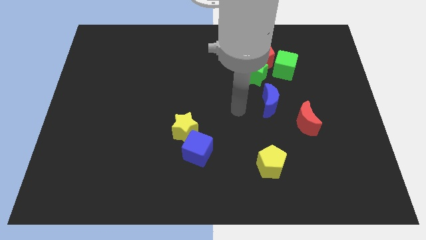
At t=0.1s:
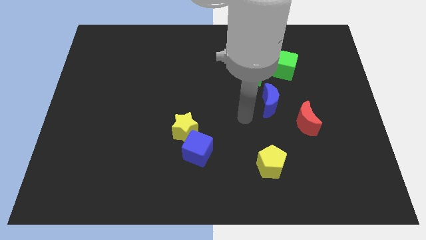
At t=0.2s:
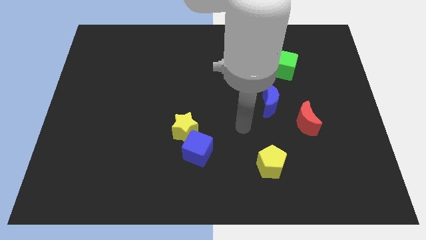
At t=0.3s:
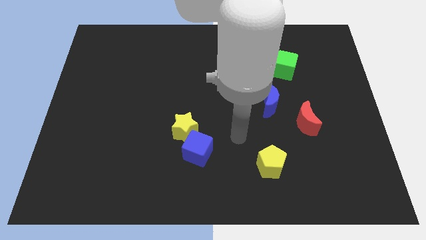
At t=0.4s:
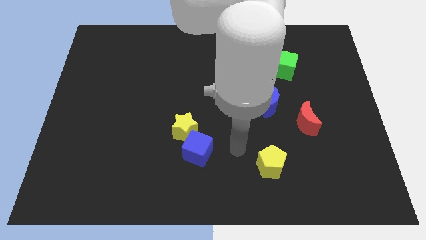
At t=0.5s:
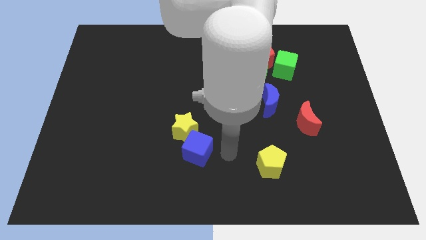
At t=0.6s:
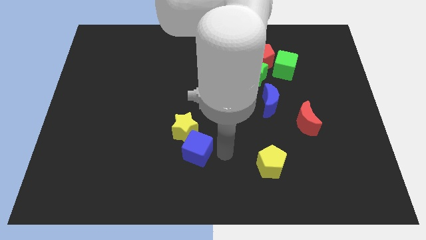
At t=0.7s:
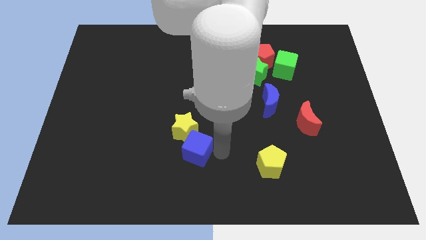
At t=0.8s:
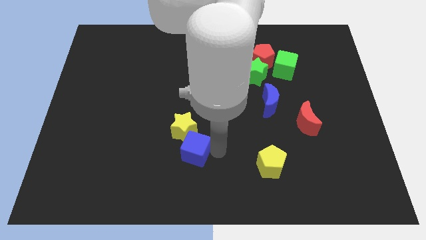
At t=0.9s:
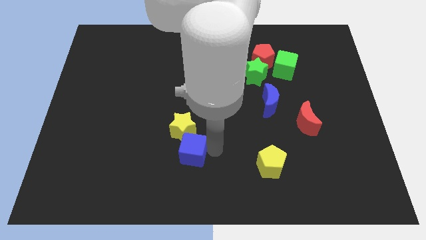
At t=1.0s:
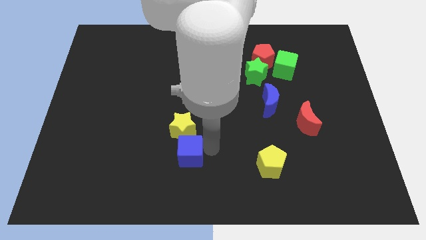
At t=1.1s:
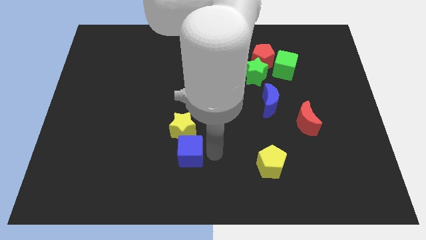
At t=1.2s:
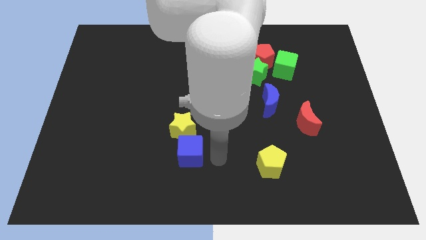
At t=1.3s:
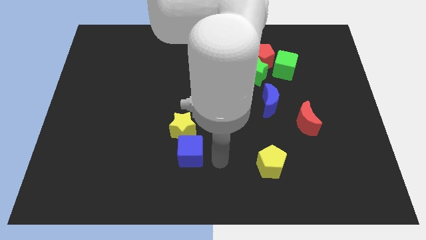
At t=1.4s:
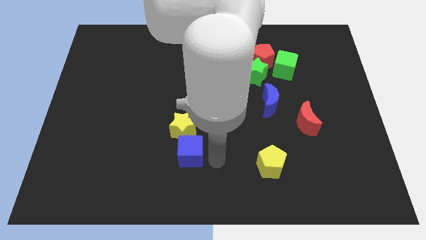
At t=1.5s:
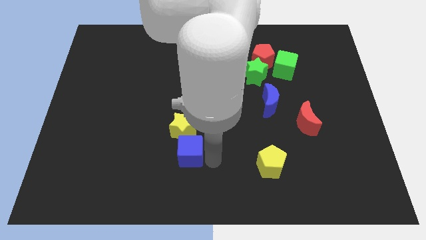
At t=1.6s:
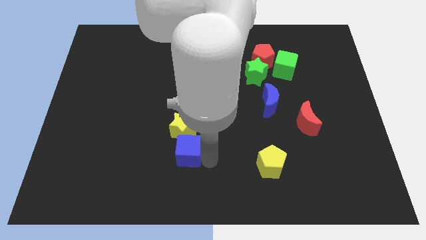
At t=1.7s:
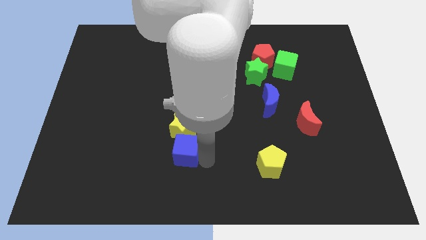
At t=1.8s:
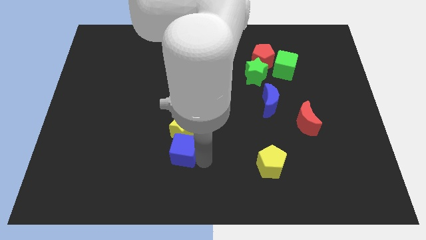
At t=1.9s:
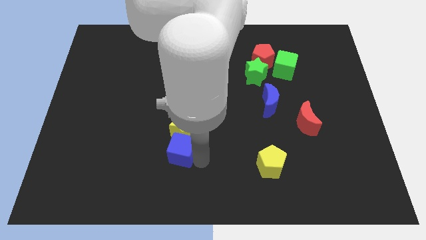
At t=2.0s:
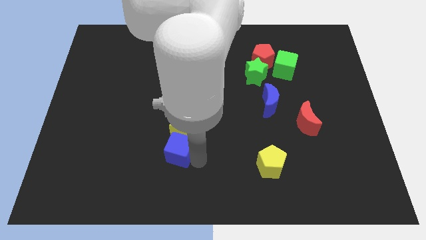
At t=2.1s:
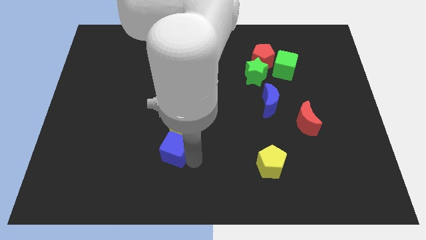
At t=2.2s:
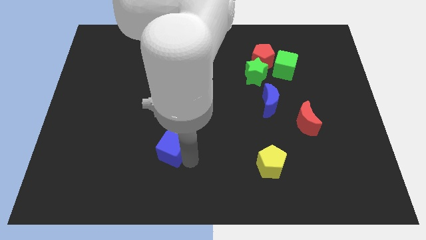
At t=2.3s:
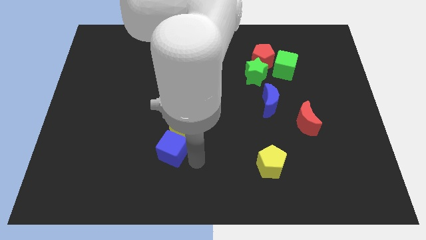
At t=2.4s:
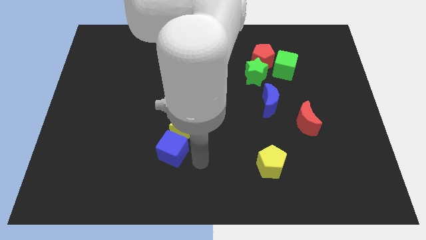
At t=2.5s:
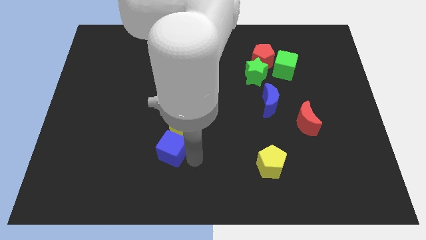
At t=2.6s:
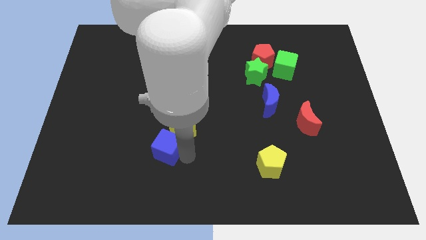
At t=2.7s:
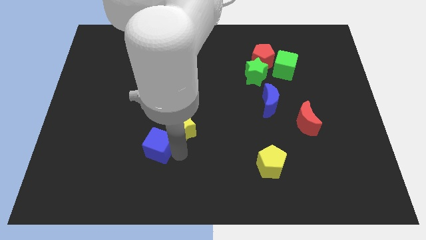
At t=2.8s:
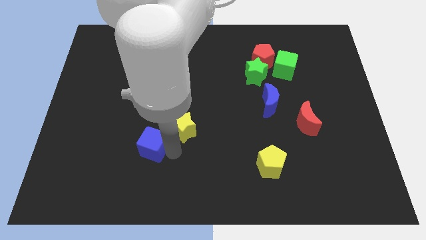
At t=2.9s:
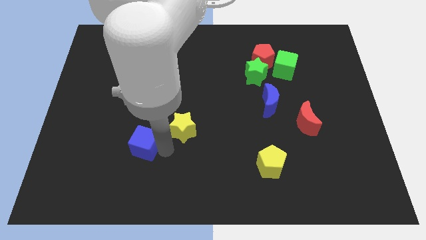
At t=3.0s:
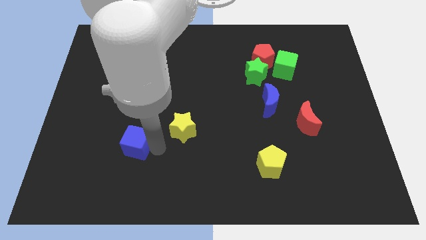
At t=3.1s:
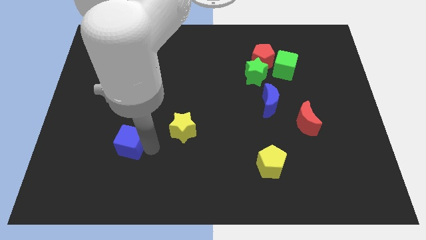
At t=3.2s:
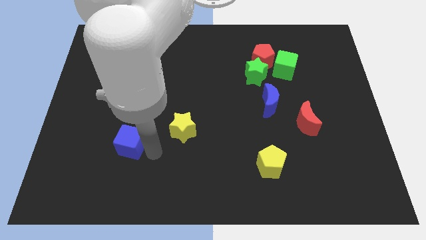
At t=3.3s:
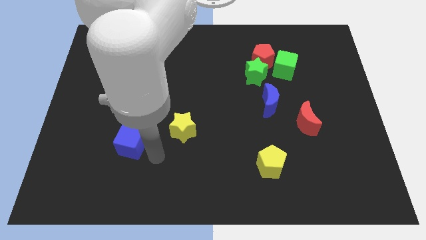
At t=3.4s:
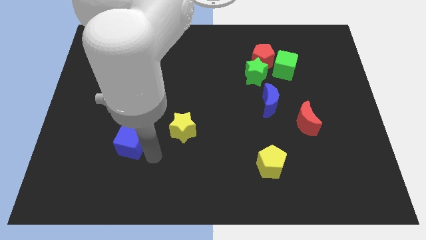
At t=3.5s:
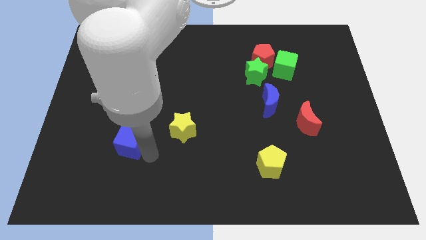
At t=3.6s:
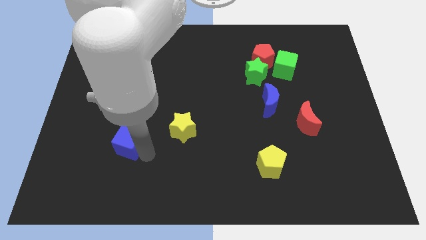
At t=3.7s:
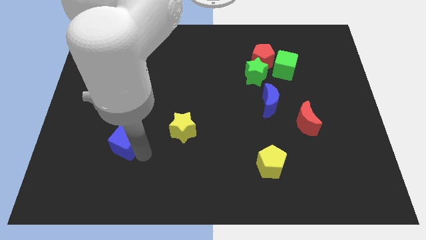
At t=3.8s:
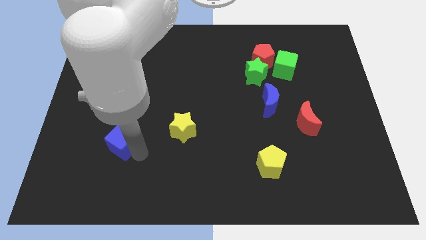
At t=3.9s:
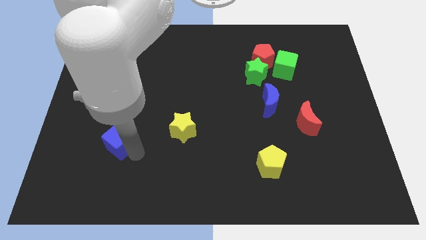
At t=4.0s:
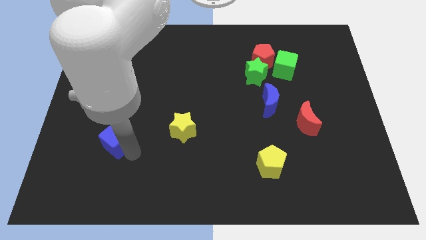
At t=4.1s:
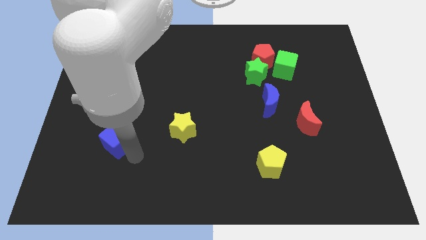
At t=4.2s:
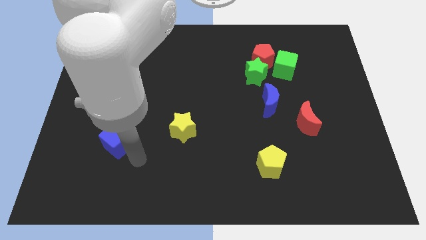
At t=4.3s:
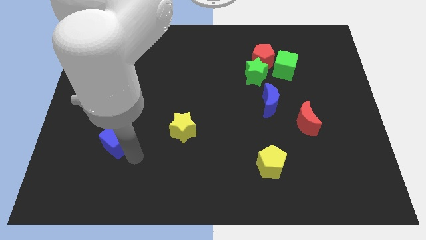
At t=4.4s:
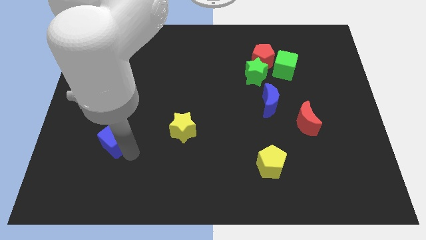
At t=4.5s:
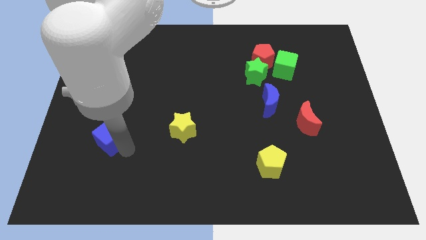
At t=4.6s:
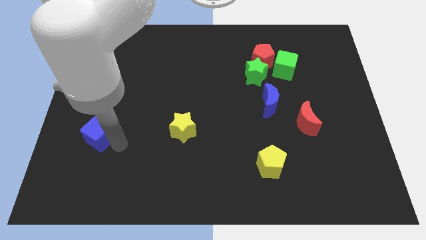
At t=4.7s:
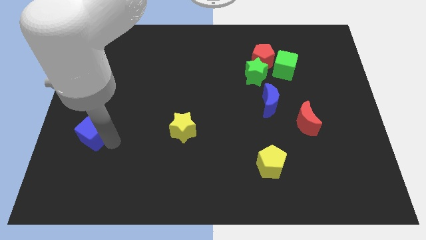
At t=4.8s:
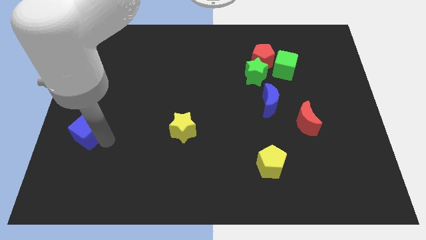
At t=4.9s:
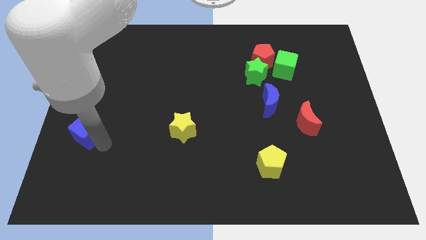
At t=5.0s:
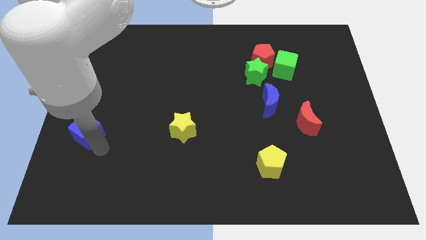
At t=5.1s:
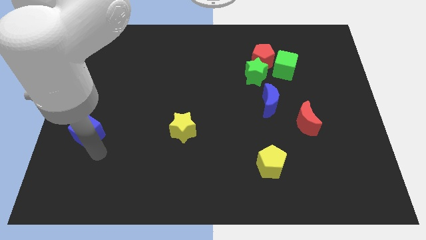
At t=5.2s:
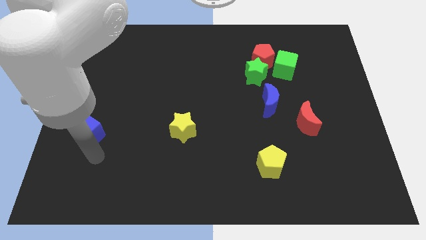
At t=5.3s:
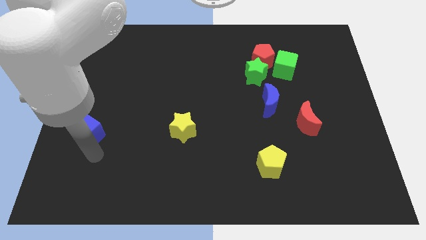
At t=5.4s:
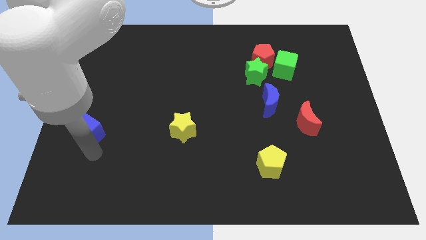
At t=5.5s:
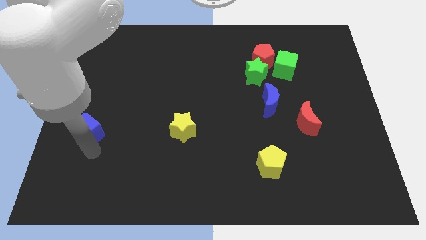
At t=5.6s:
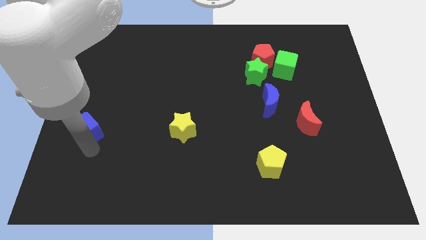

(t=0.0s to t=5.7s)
put the blue cube to the left side
